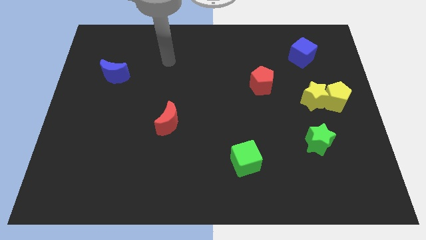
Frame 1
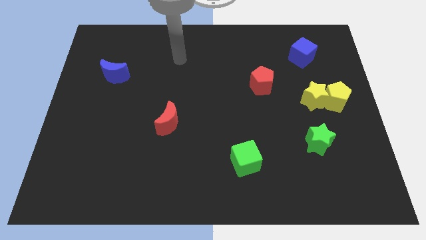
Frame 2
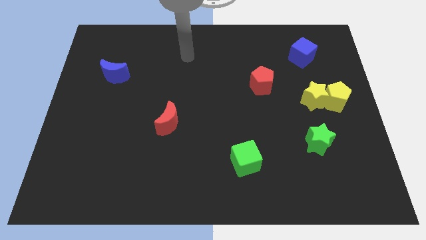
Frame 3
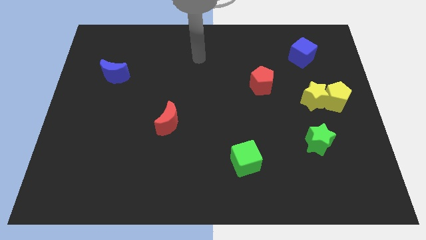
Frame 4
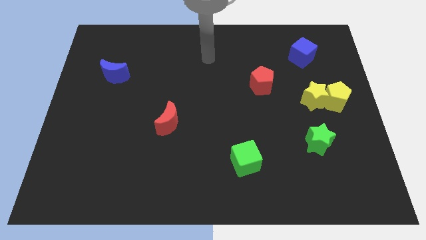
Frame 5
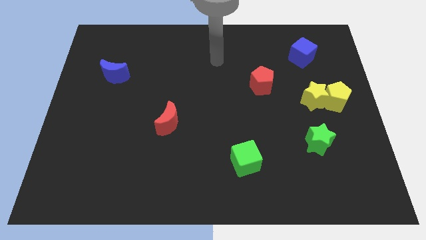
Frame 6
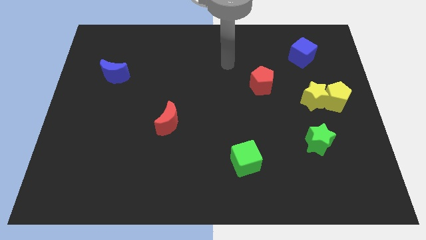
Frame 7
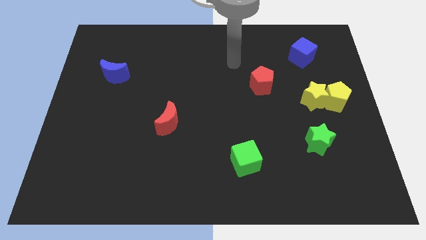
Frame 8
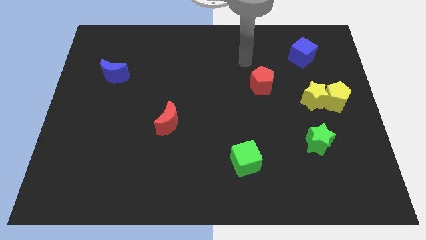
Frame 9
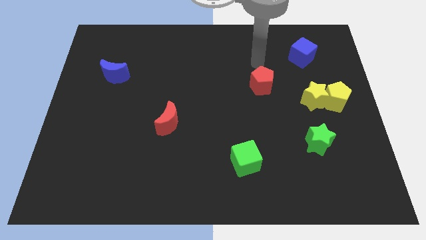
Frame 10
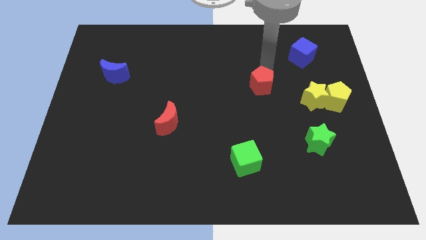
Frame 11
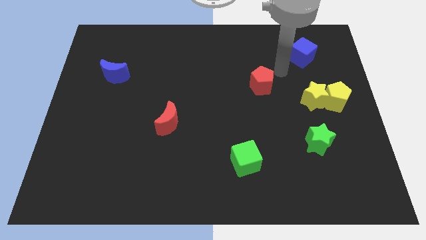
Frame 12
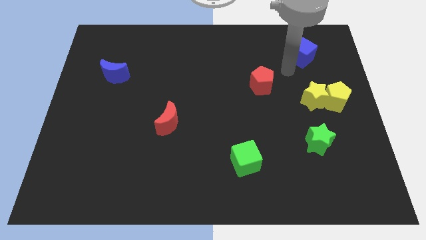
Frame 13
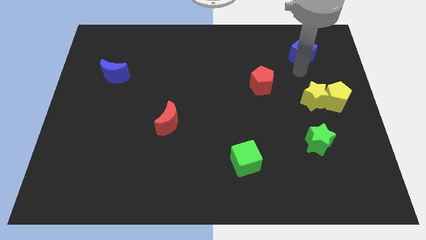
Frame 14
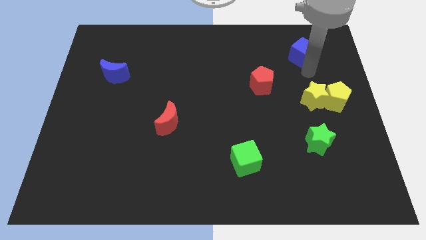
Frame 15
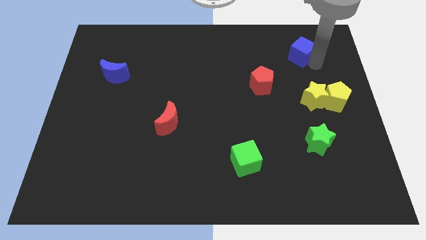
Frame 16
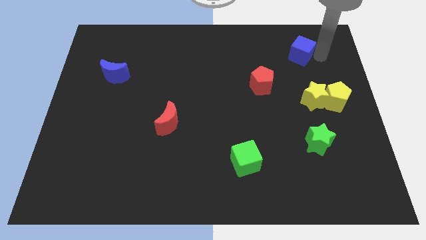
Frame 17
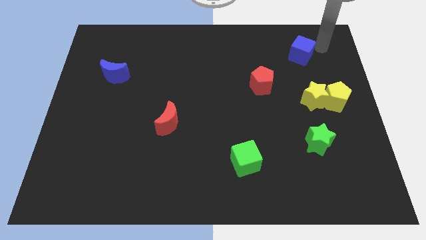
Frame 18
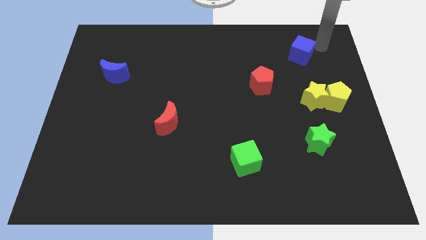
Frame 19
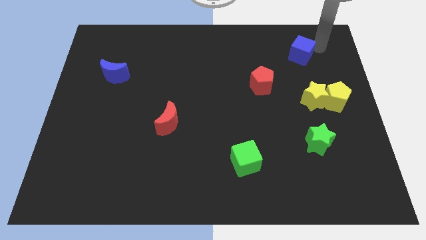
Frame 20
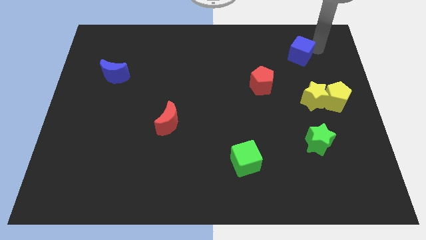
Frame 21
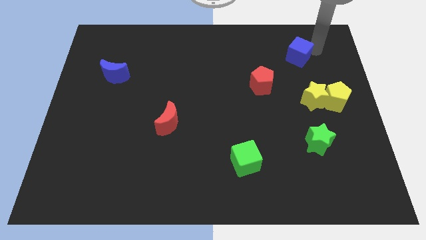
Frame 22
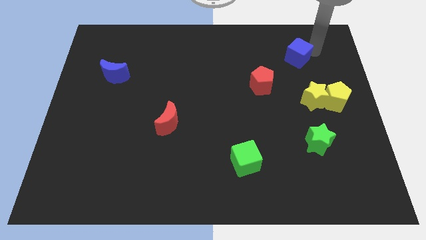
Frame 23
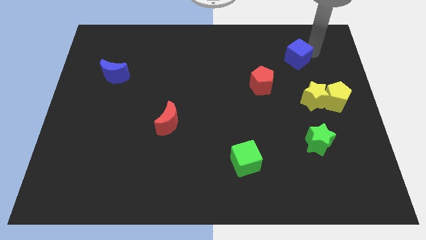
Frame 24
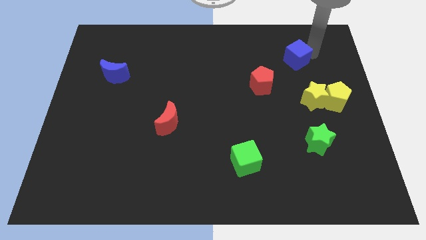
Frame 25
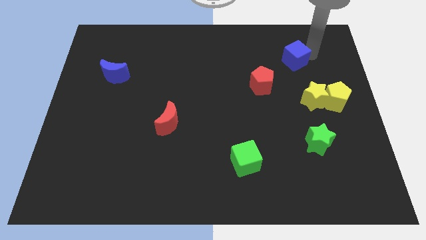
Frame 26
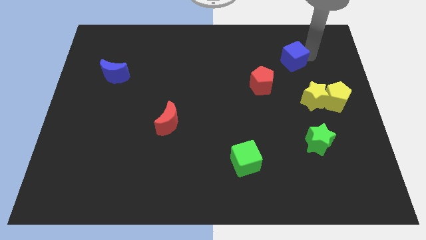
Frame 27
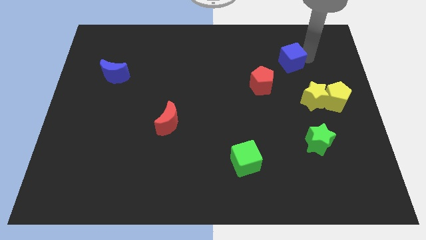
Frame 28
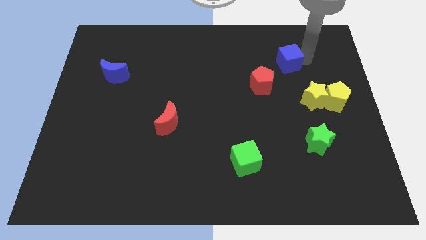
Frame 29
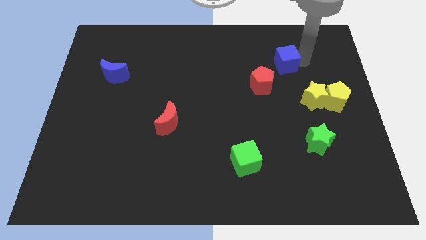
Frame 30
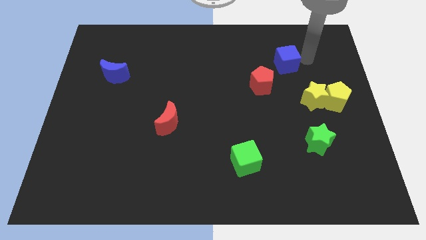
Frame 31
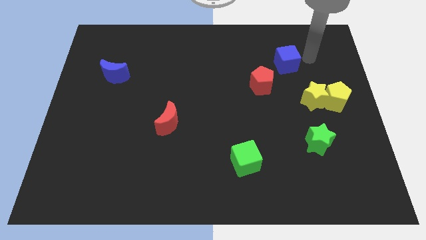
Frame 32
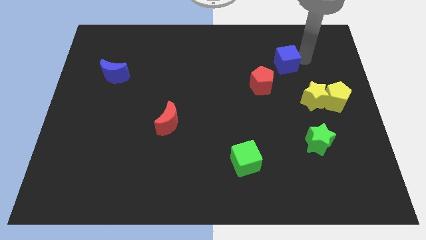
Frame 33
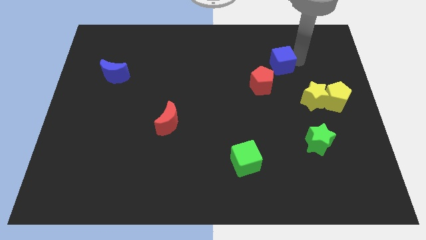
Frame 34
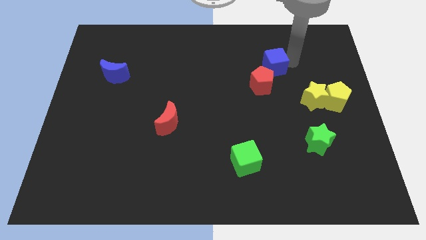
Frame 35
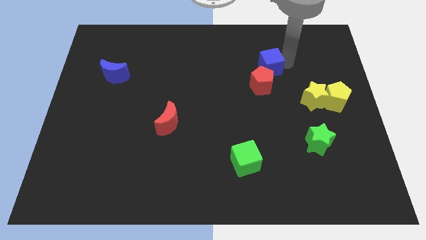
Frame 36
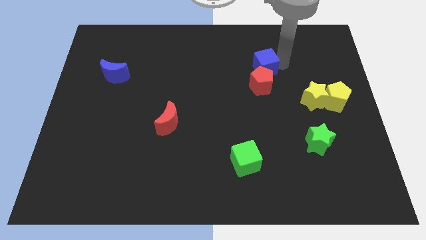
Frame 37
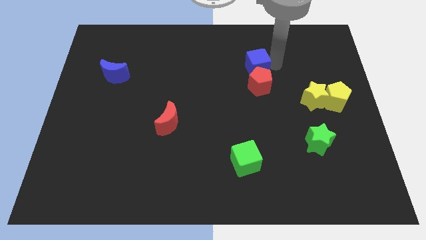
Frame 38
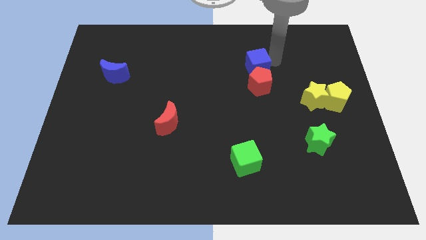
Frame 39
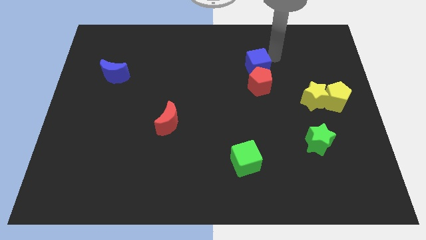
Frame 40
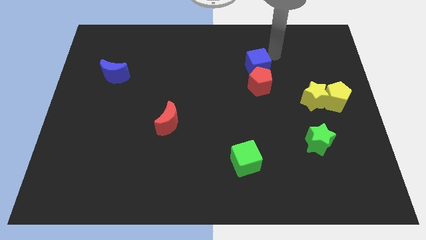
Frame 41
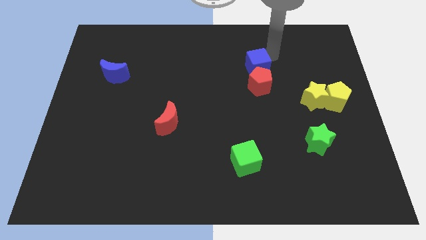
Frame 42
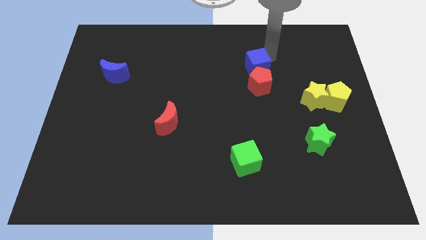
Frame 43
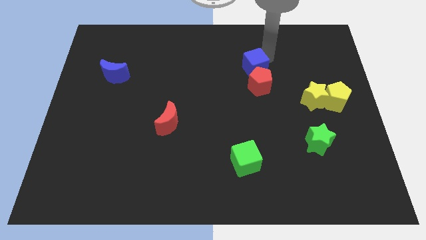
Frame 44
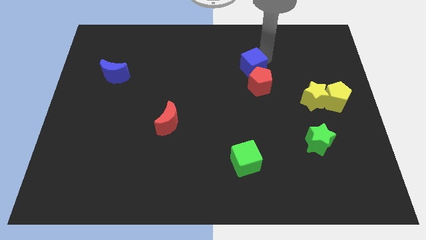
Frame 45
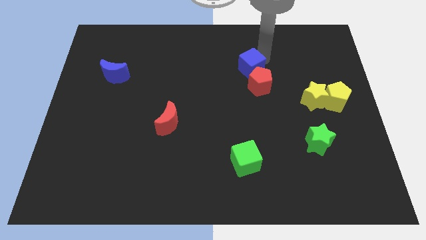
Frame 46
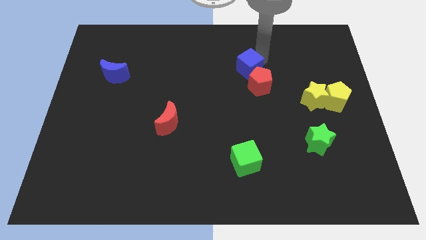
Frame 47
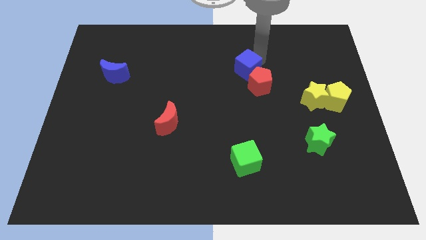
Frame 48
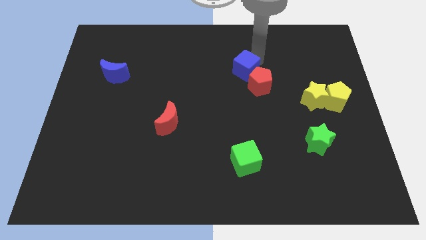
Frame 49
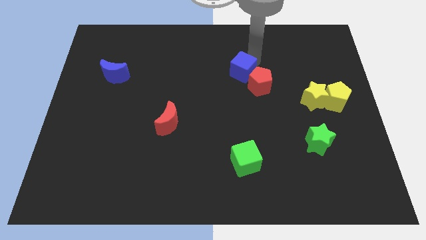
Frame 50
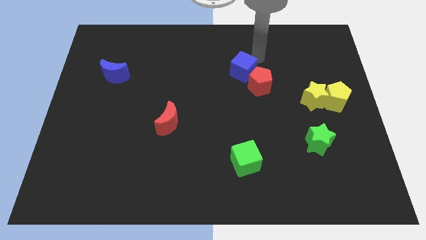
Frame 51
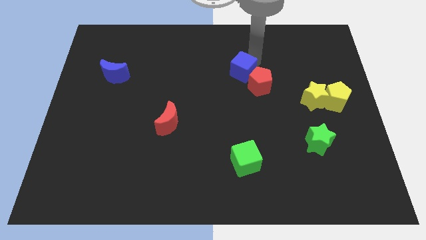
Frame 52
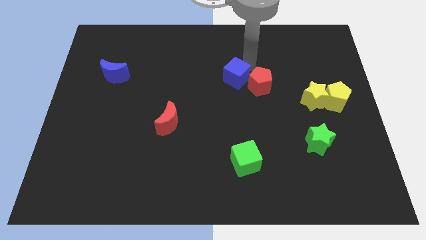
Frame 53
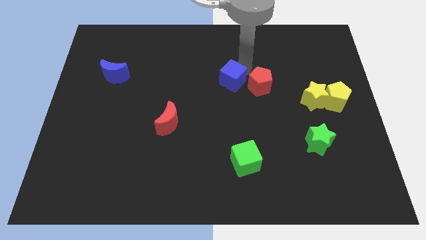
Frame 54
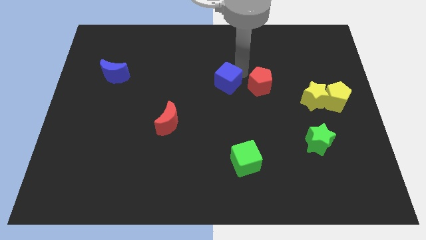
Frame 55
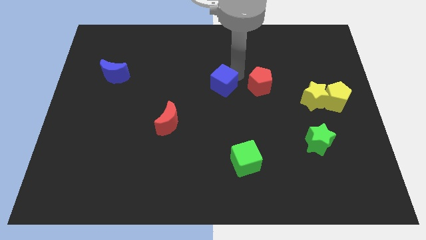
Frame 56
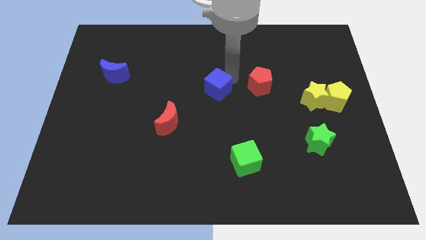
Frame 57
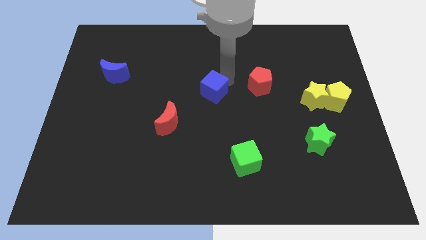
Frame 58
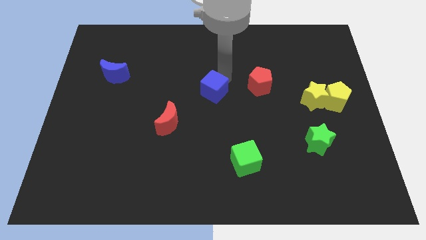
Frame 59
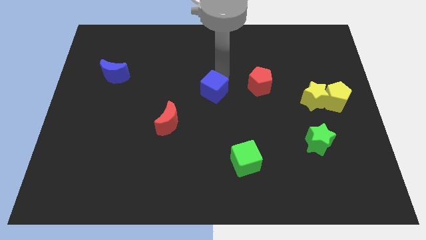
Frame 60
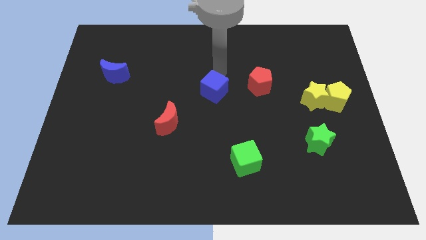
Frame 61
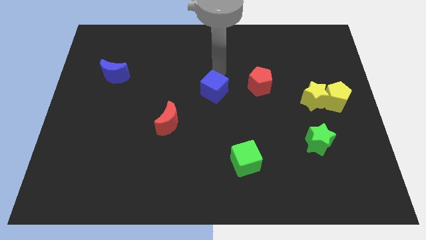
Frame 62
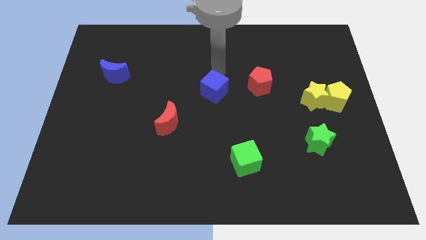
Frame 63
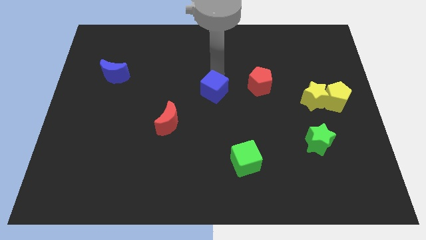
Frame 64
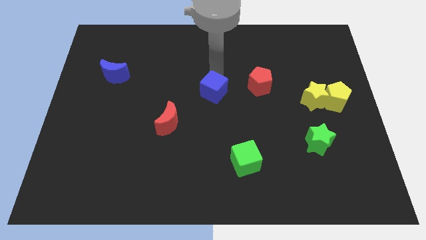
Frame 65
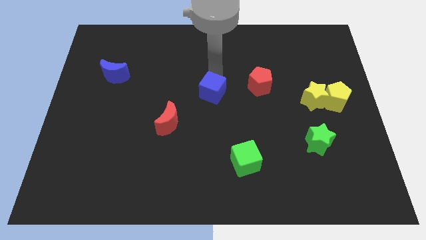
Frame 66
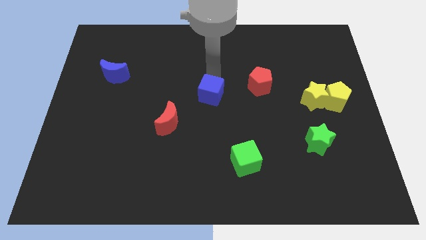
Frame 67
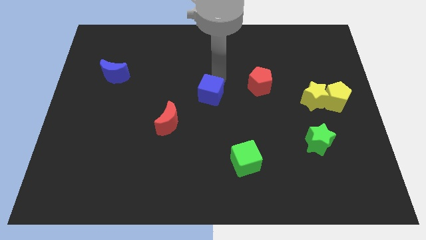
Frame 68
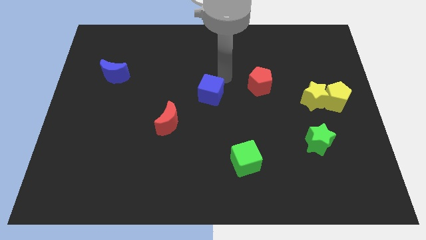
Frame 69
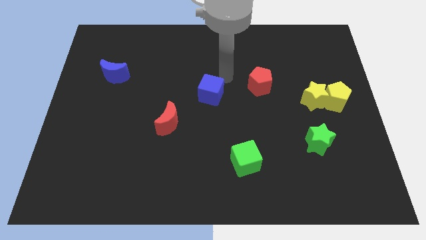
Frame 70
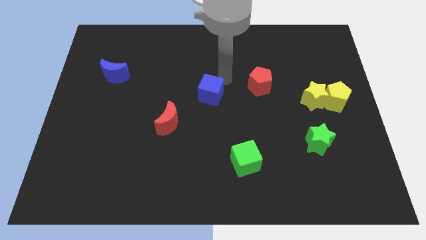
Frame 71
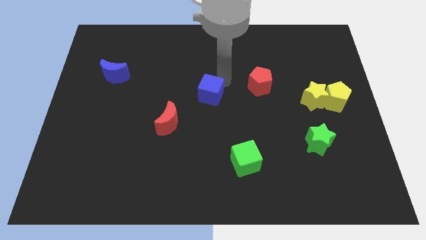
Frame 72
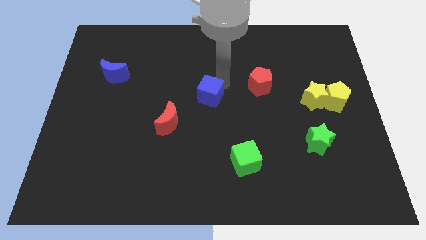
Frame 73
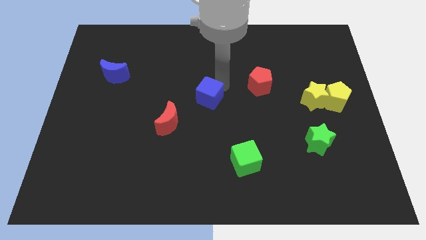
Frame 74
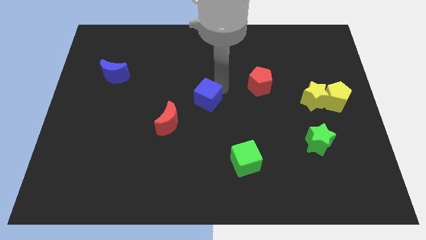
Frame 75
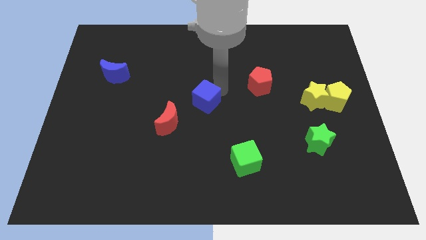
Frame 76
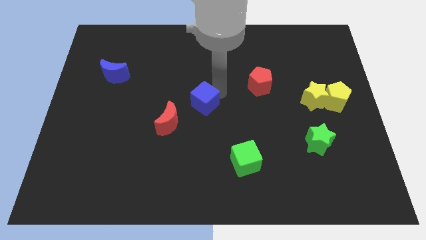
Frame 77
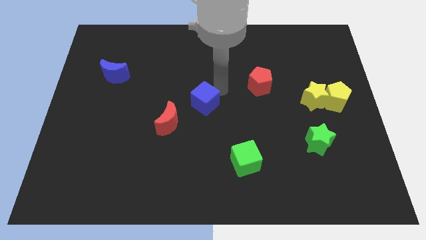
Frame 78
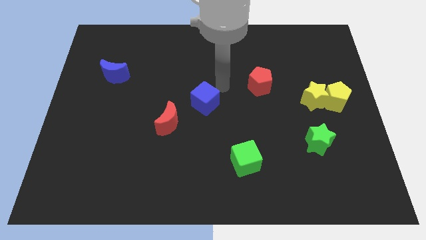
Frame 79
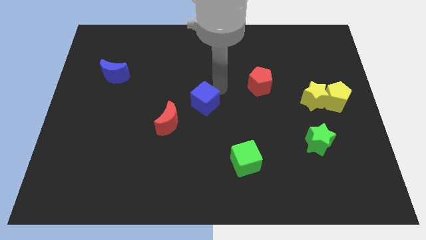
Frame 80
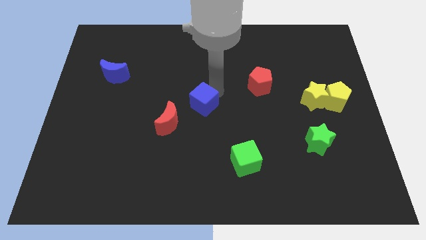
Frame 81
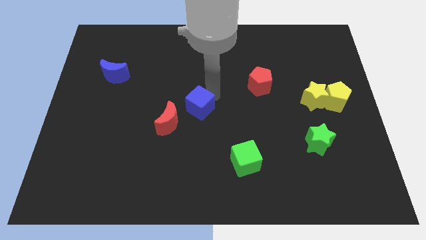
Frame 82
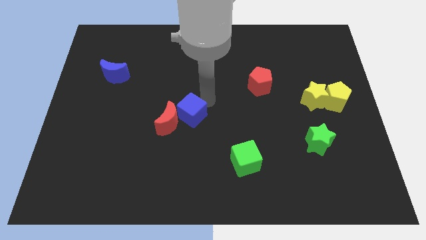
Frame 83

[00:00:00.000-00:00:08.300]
put the blue cube close to the red moon
